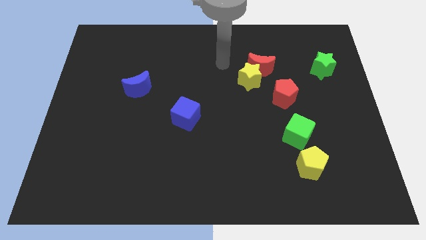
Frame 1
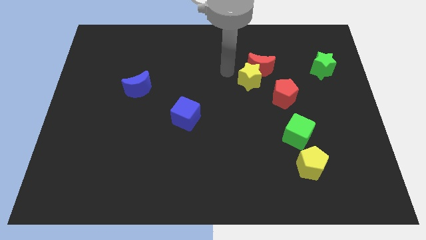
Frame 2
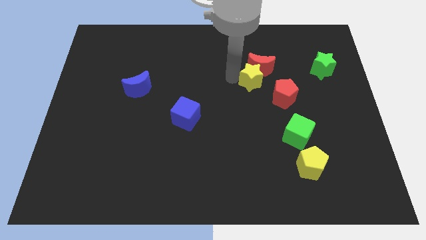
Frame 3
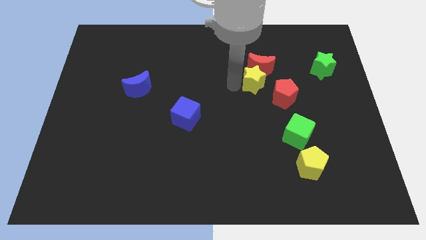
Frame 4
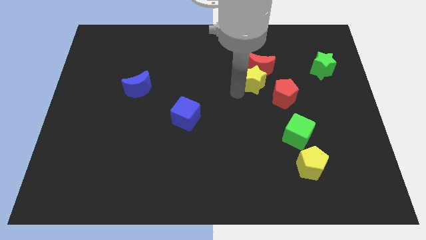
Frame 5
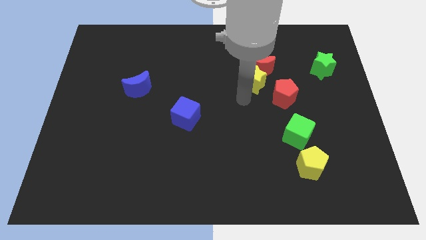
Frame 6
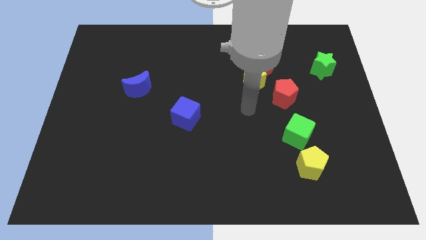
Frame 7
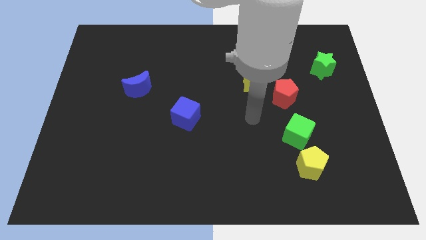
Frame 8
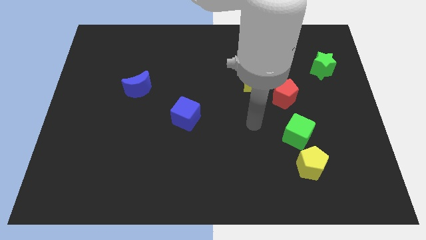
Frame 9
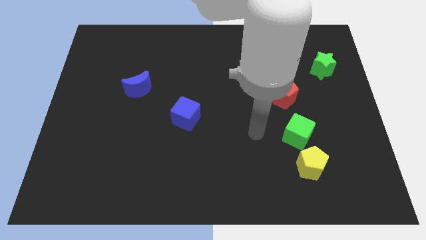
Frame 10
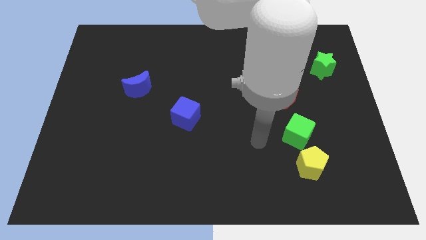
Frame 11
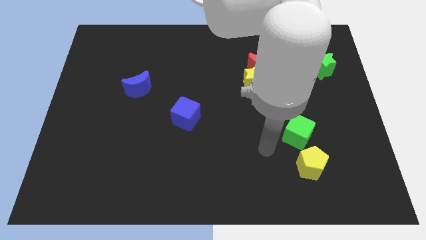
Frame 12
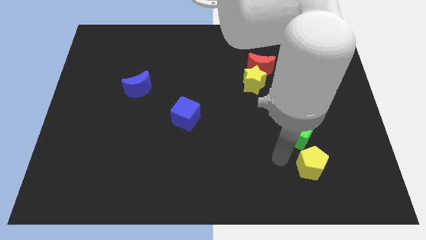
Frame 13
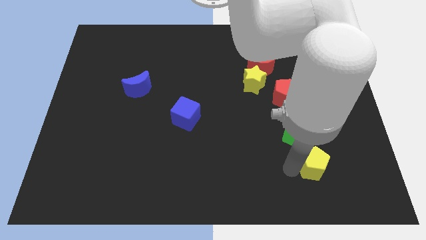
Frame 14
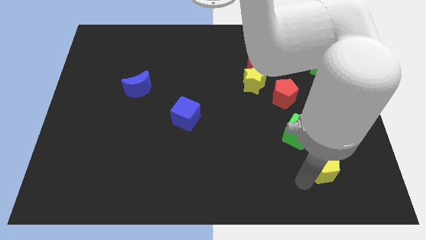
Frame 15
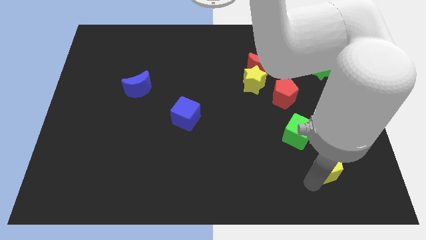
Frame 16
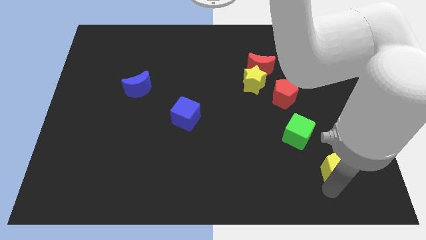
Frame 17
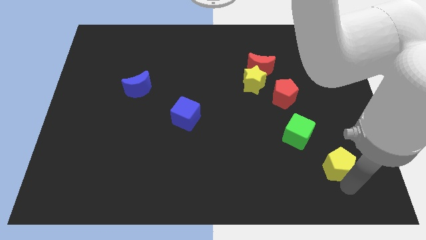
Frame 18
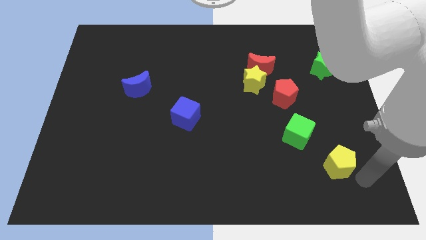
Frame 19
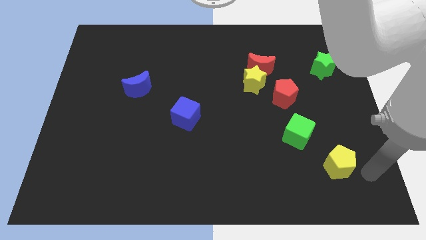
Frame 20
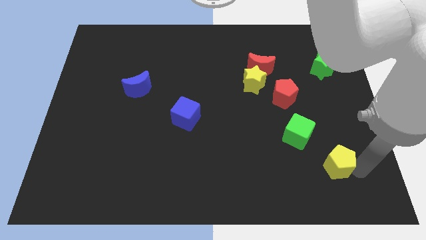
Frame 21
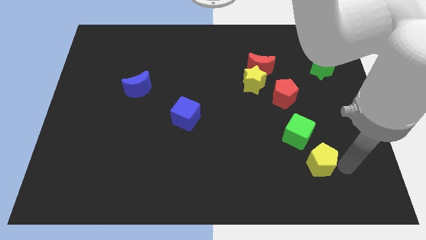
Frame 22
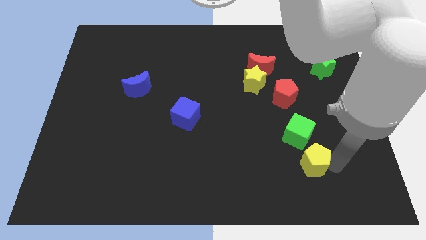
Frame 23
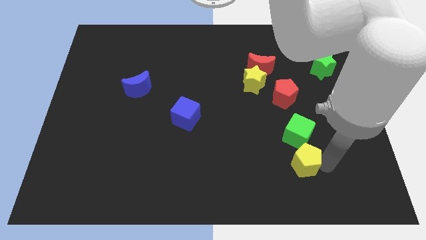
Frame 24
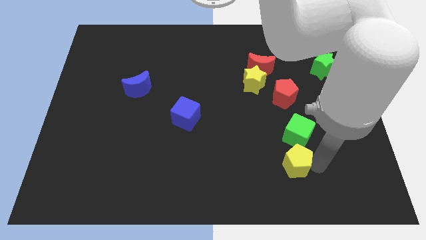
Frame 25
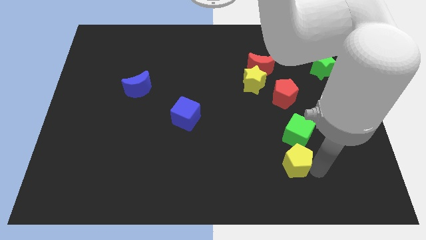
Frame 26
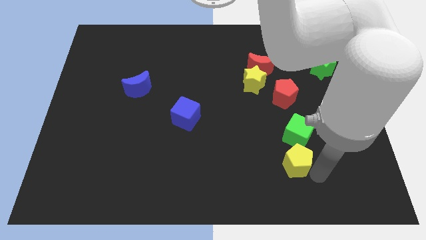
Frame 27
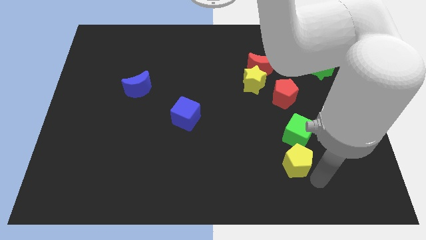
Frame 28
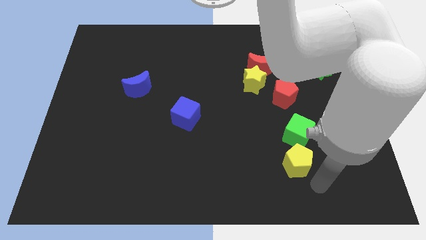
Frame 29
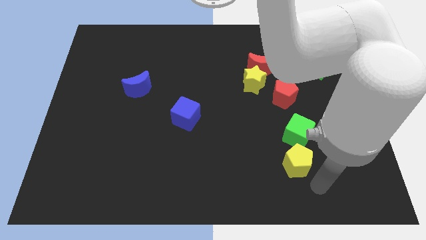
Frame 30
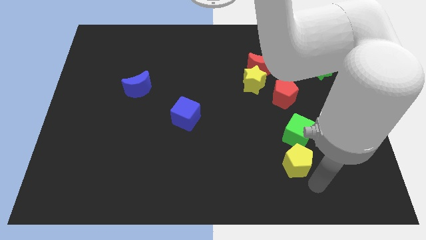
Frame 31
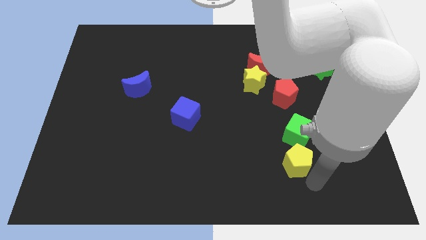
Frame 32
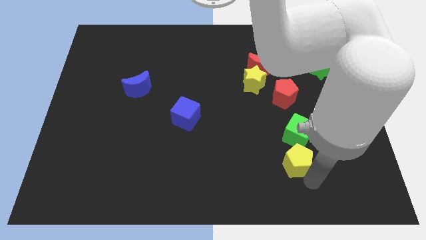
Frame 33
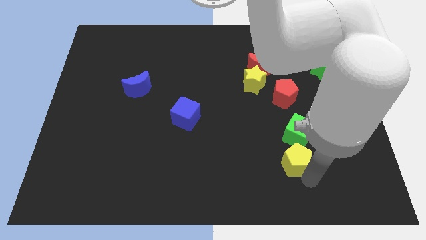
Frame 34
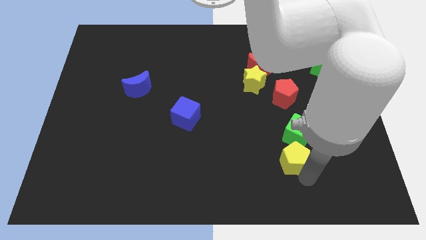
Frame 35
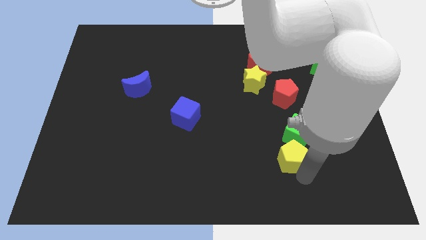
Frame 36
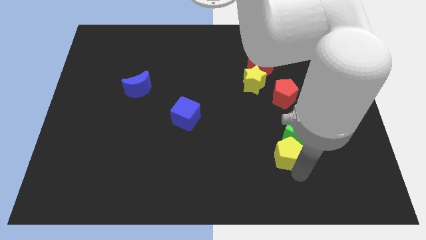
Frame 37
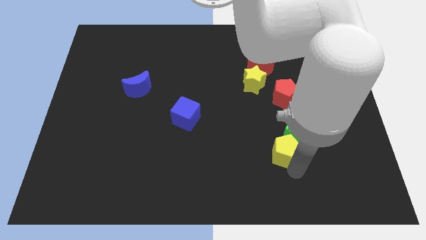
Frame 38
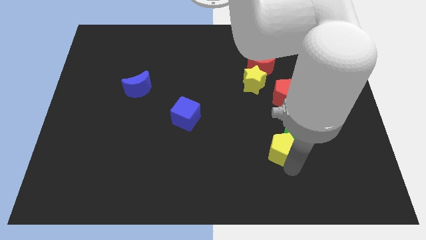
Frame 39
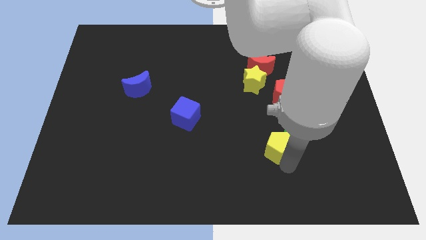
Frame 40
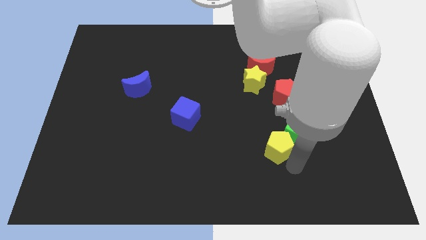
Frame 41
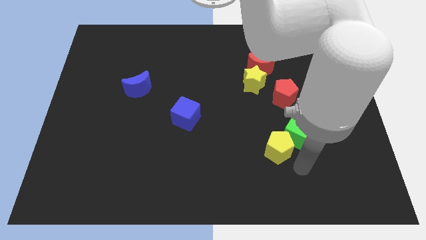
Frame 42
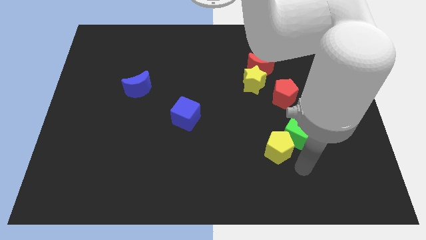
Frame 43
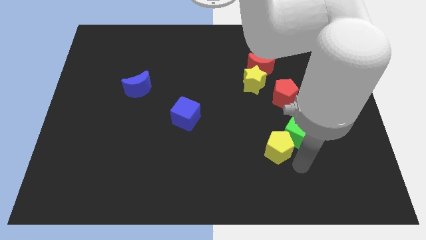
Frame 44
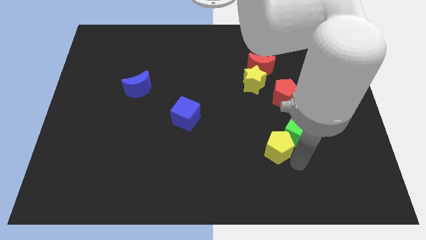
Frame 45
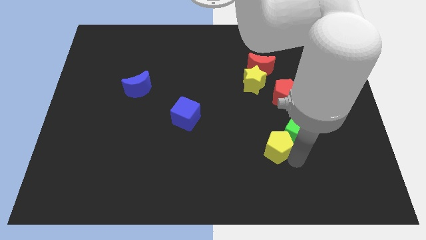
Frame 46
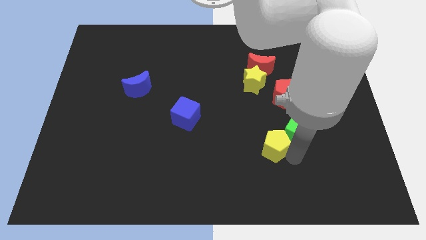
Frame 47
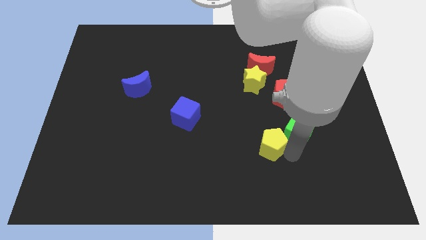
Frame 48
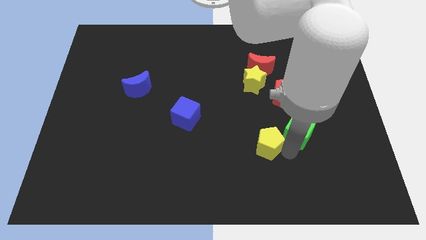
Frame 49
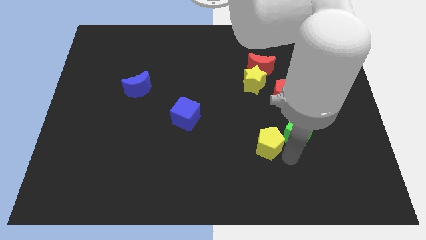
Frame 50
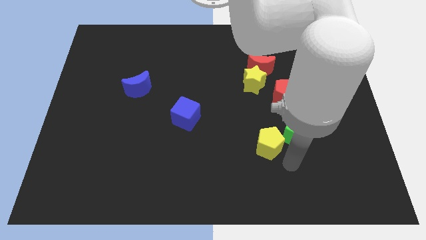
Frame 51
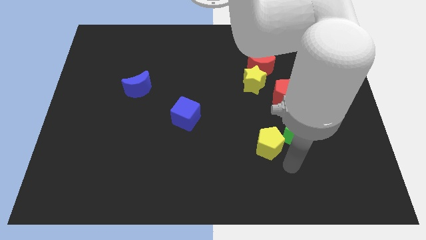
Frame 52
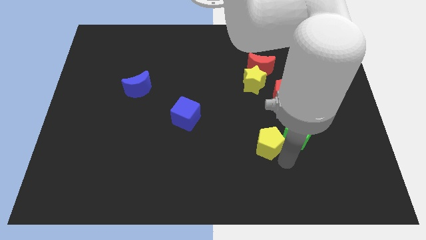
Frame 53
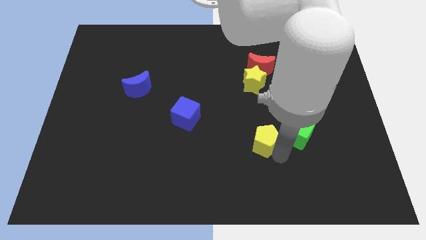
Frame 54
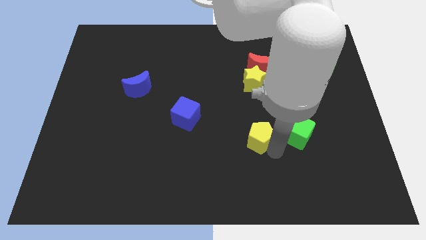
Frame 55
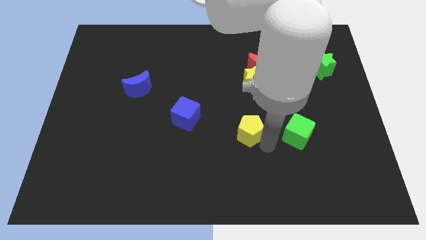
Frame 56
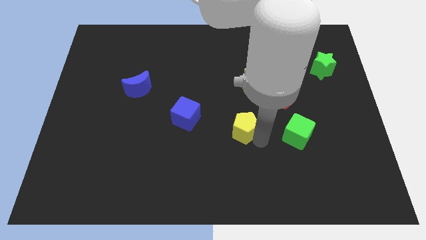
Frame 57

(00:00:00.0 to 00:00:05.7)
move the yellow pentagon just right of the blue cube

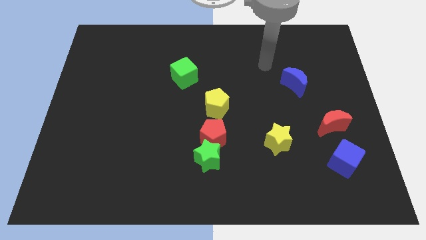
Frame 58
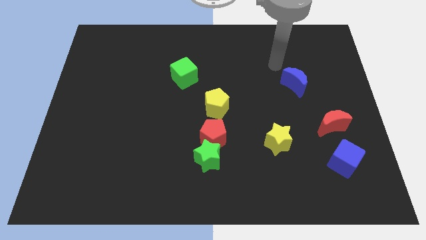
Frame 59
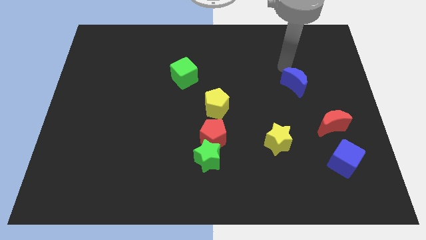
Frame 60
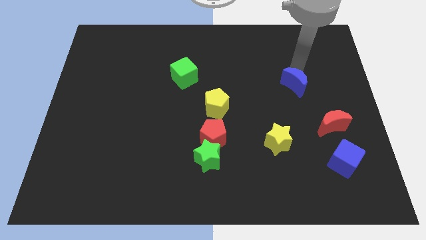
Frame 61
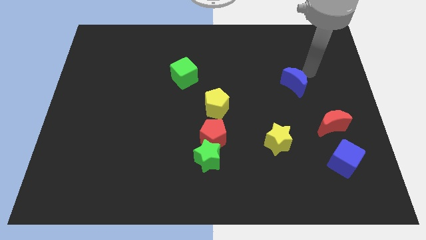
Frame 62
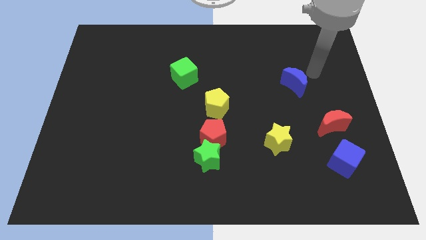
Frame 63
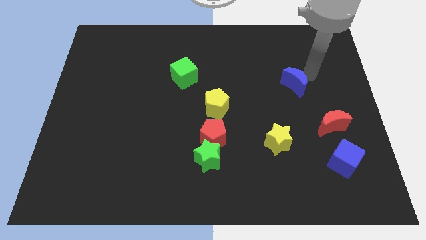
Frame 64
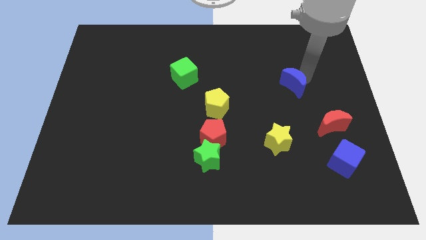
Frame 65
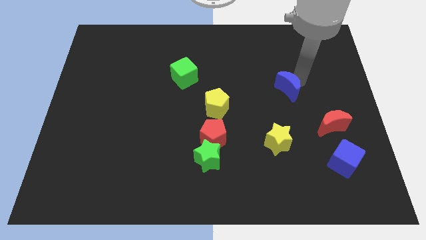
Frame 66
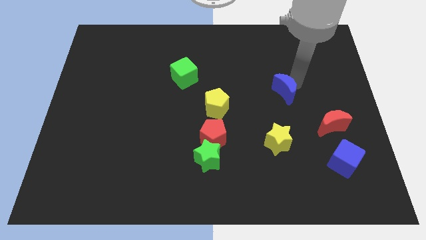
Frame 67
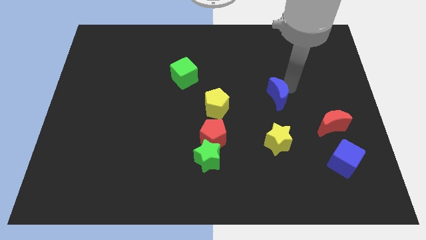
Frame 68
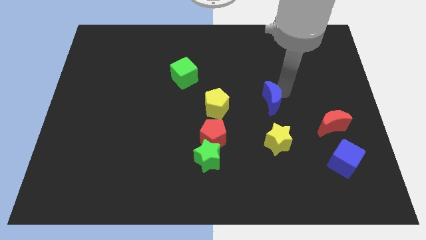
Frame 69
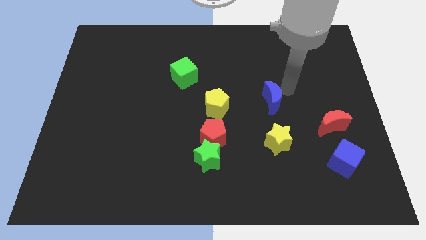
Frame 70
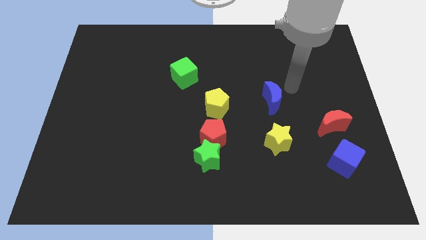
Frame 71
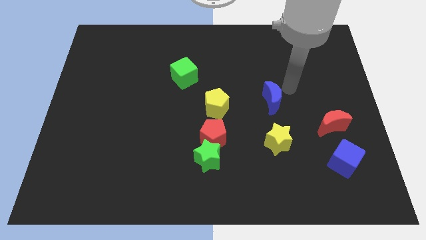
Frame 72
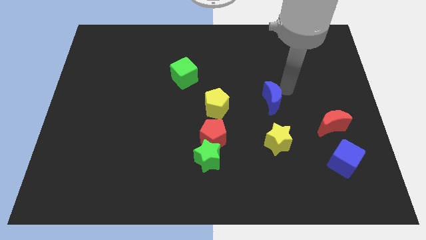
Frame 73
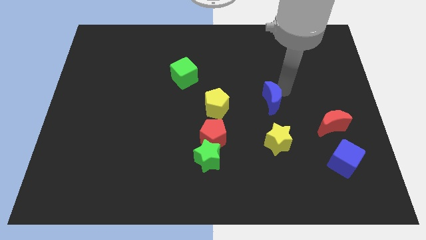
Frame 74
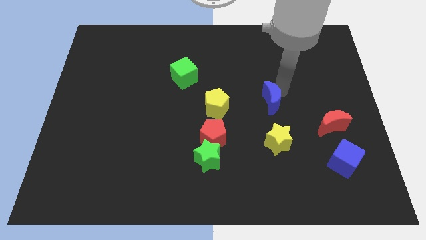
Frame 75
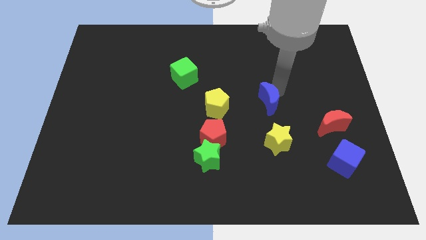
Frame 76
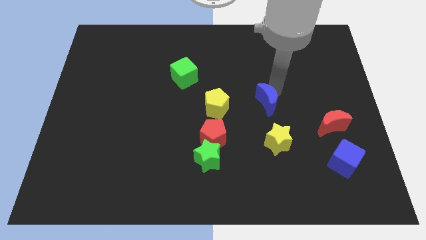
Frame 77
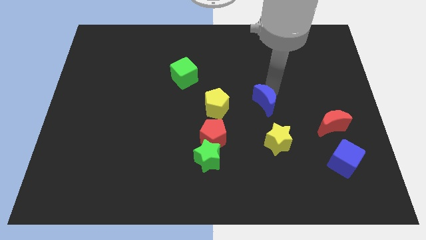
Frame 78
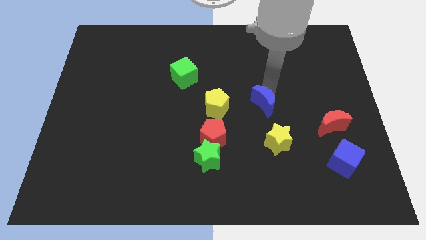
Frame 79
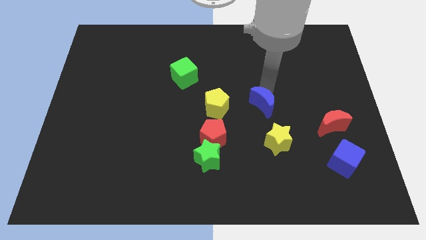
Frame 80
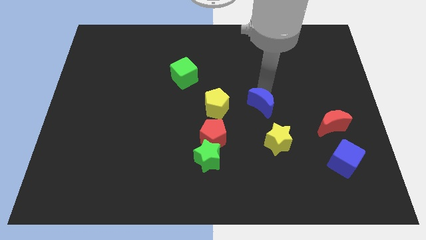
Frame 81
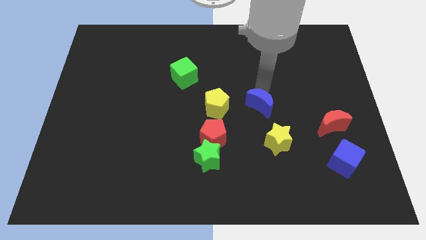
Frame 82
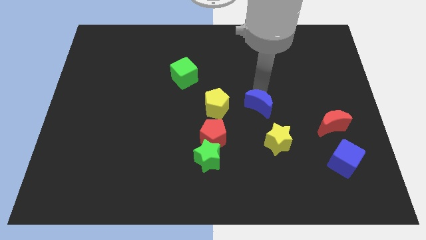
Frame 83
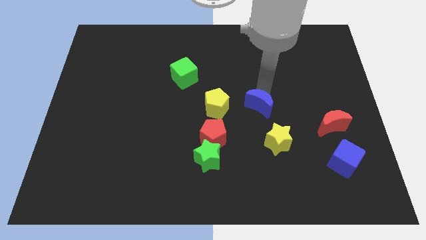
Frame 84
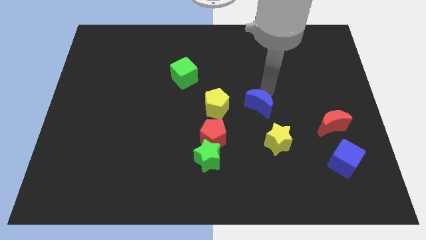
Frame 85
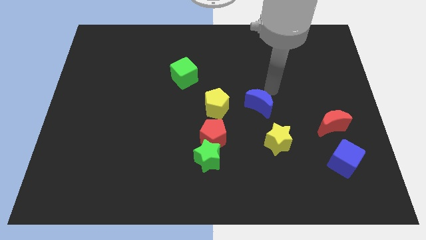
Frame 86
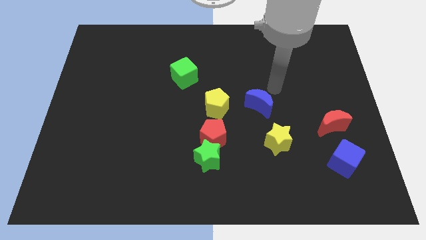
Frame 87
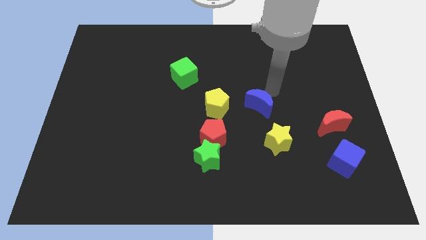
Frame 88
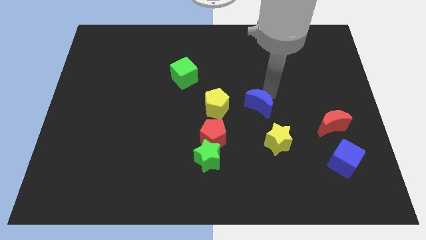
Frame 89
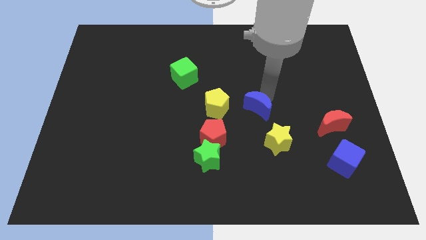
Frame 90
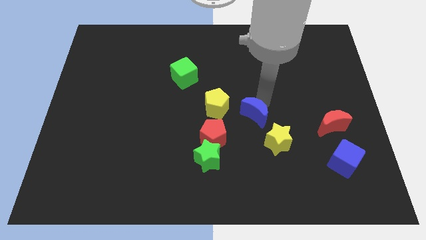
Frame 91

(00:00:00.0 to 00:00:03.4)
move the blue moon diagonally down and to the right of the yellow pentagon
